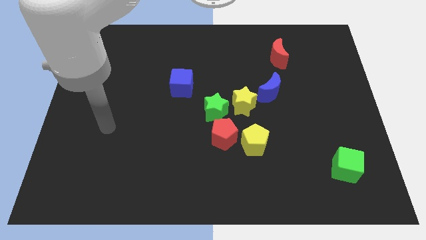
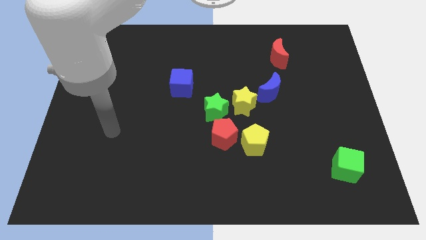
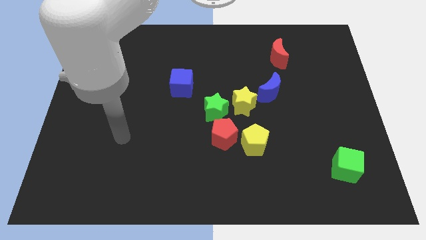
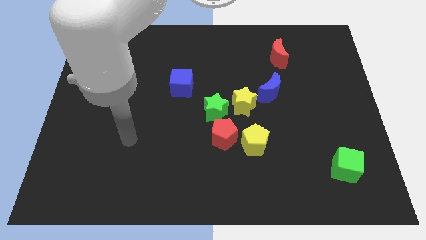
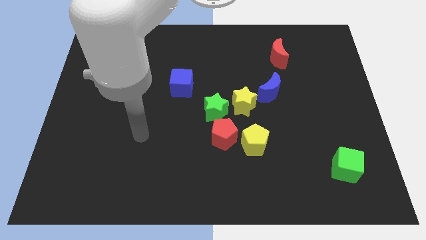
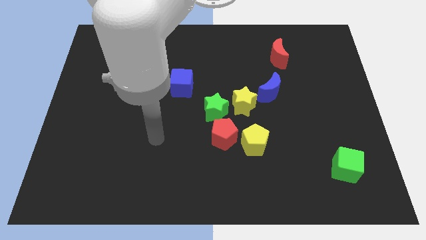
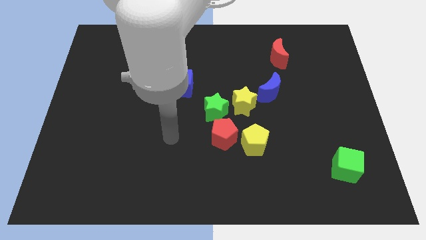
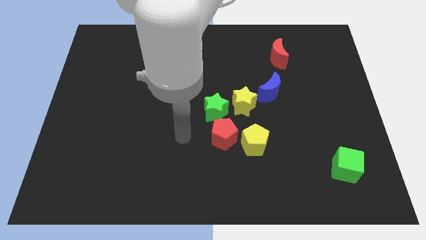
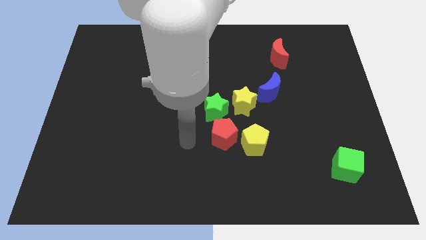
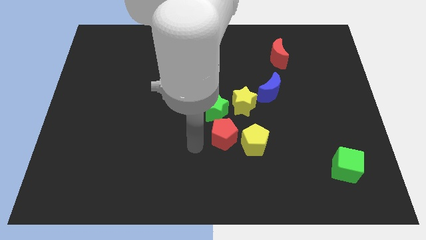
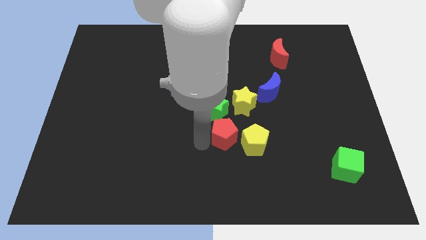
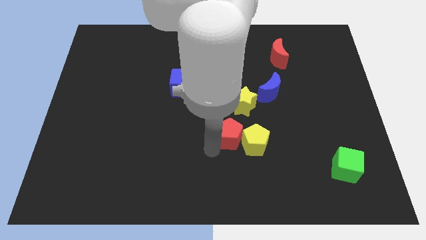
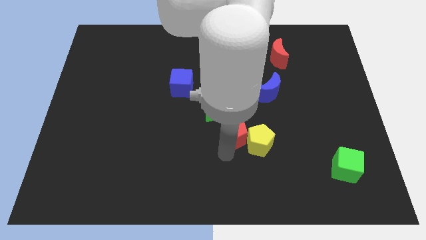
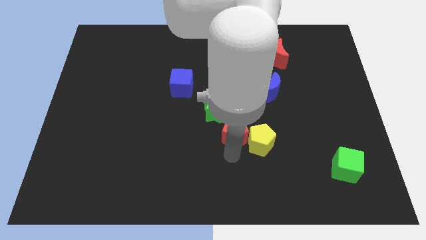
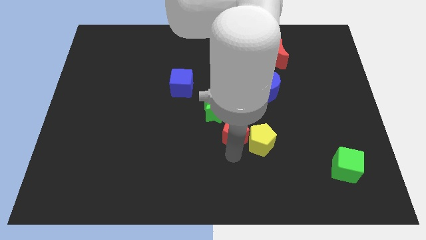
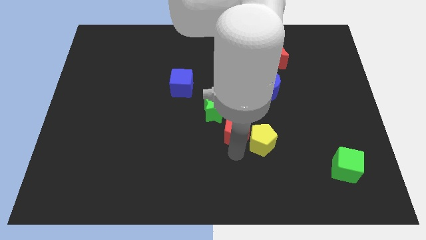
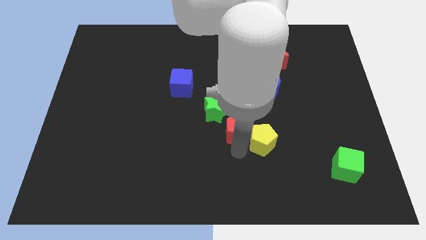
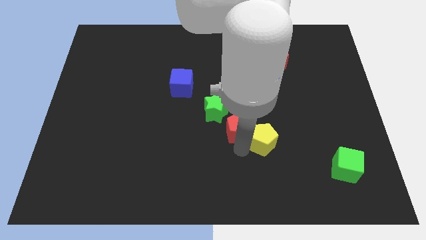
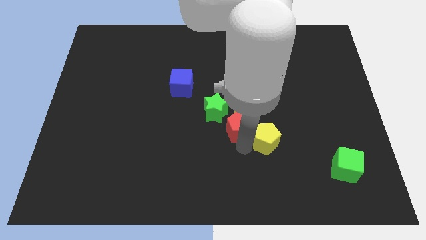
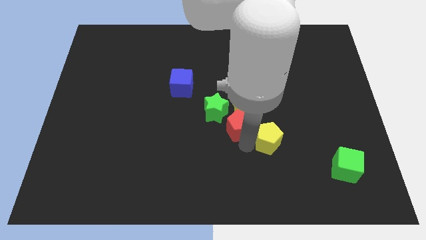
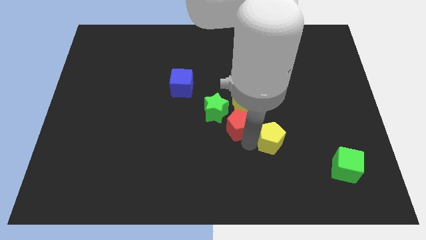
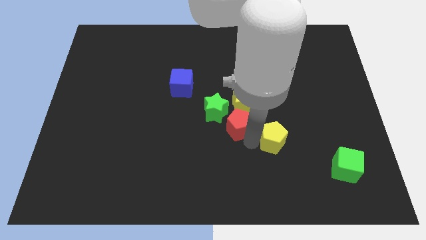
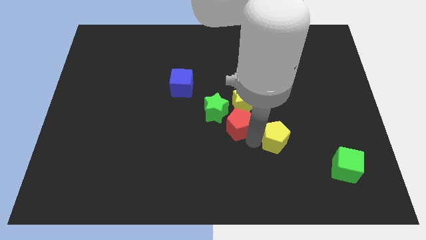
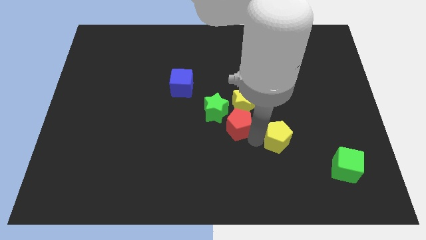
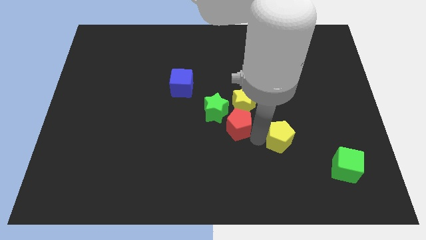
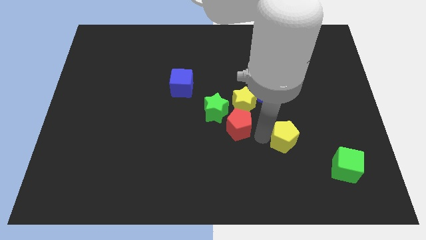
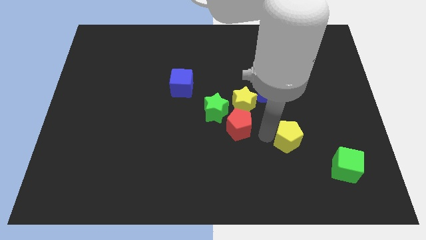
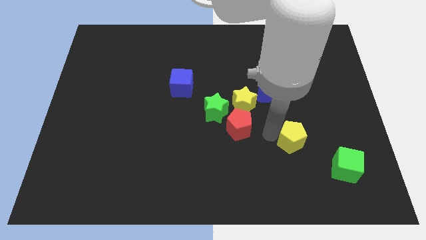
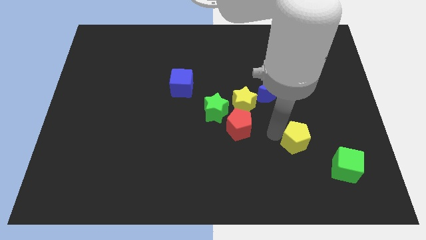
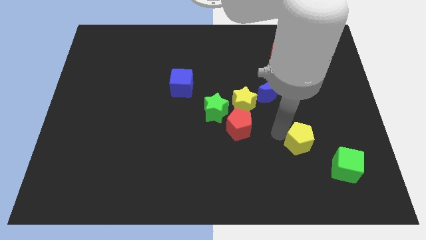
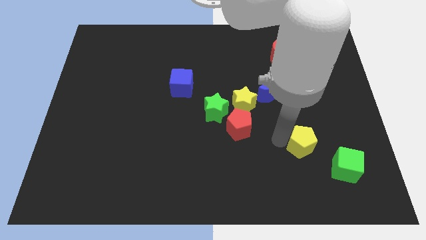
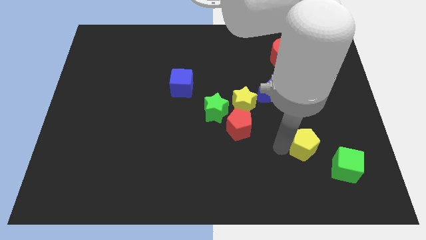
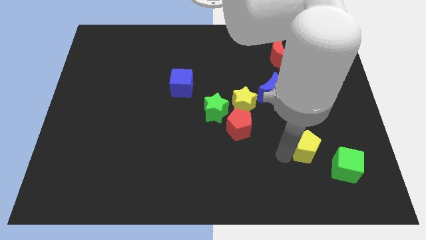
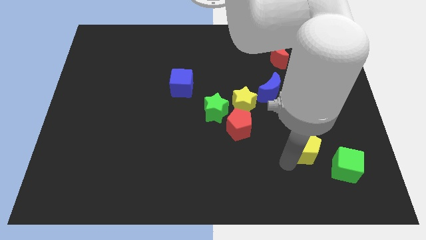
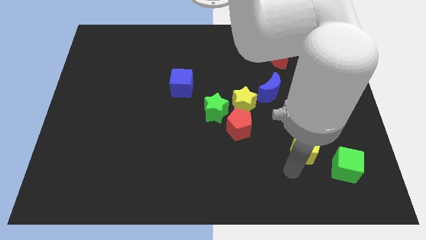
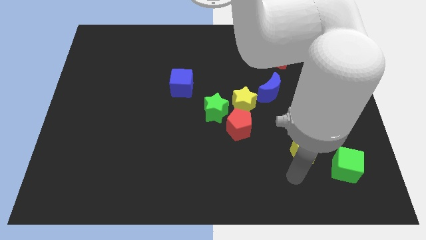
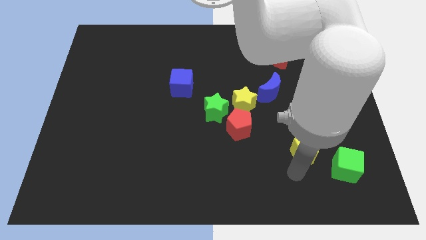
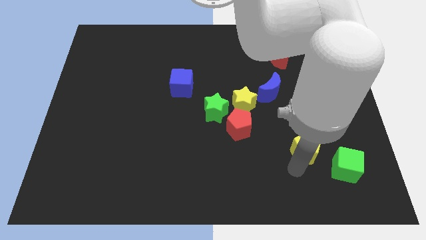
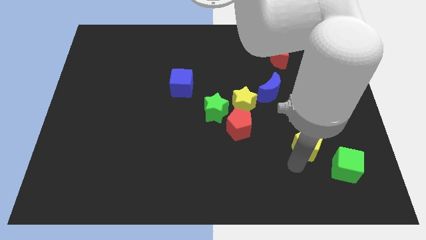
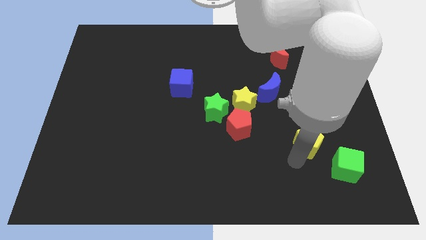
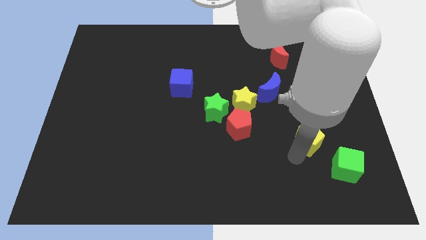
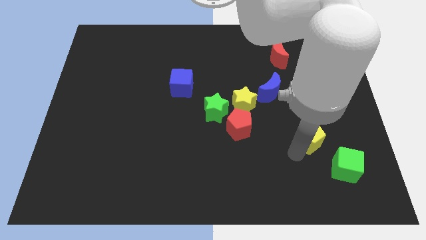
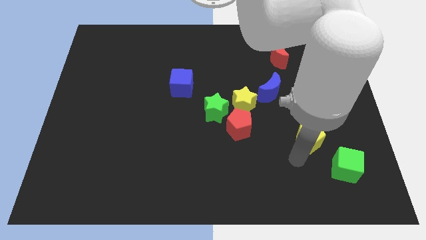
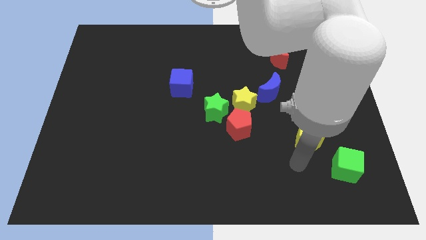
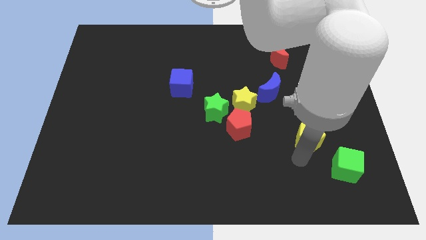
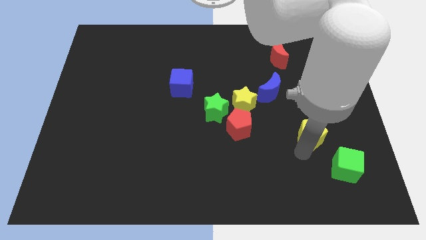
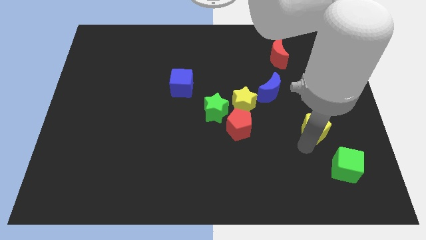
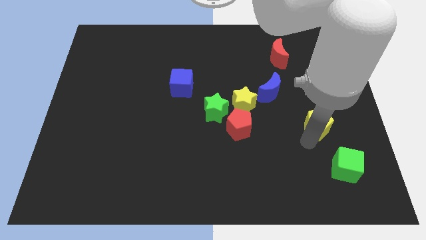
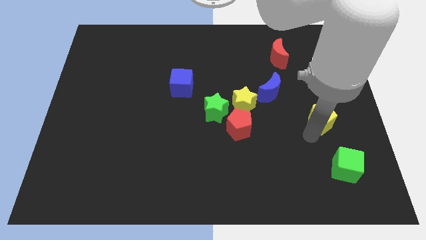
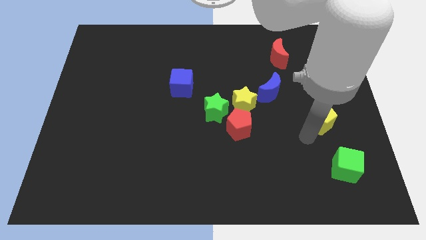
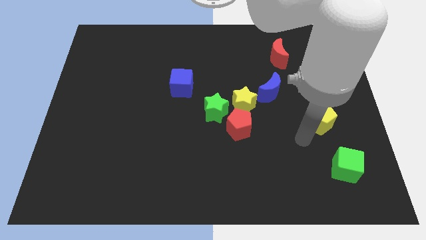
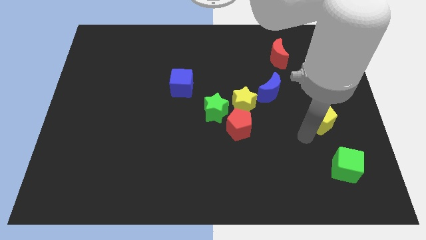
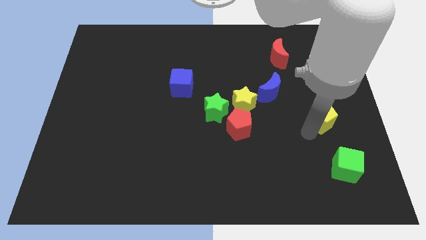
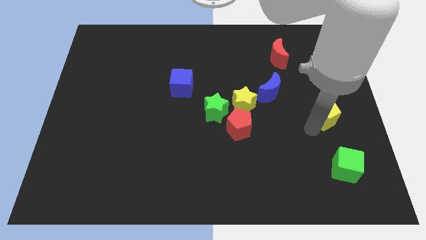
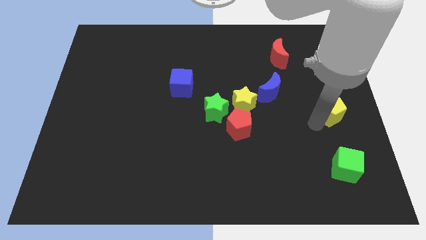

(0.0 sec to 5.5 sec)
push the yellow pentagon to the center right

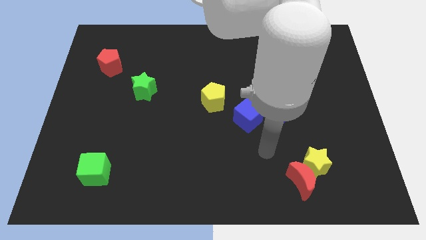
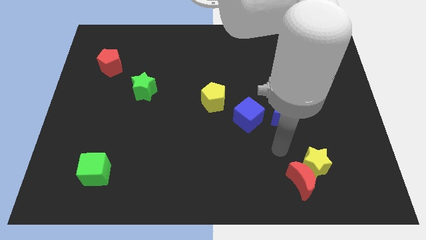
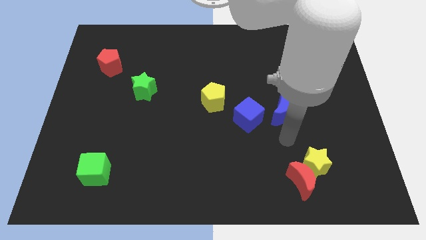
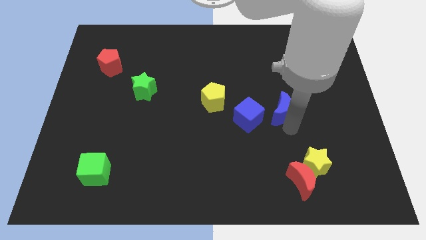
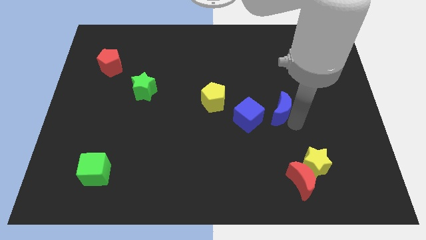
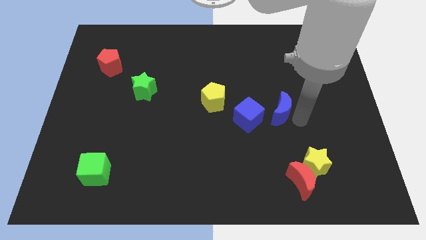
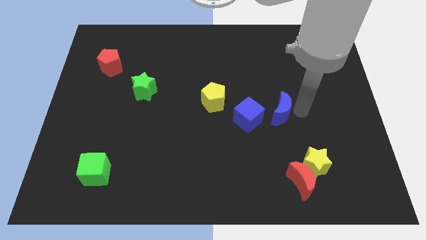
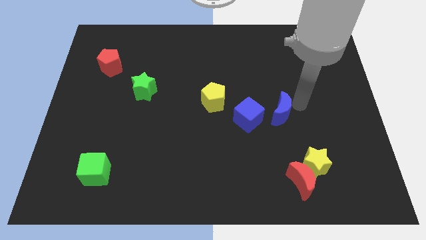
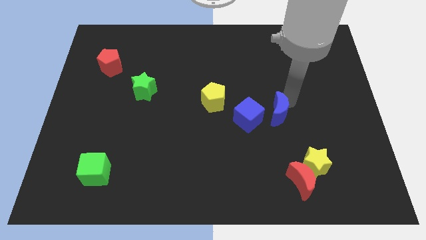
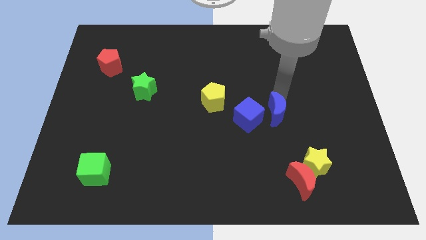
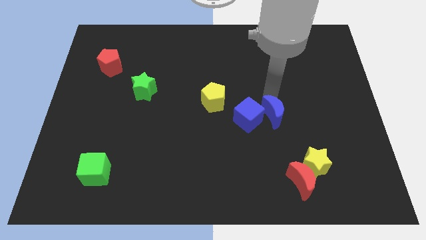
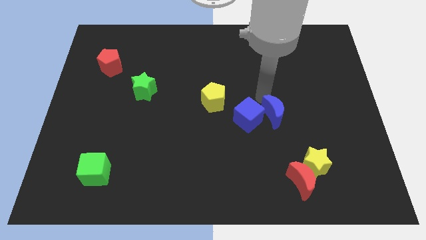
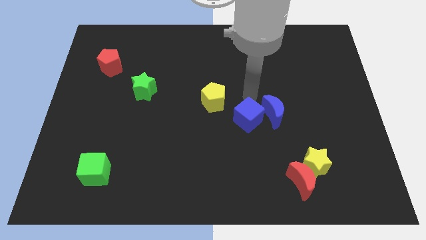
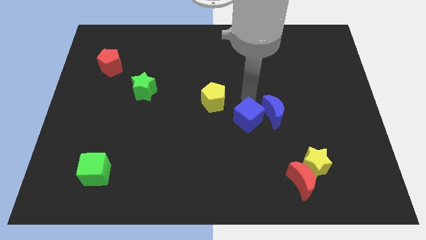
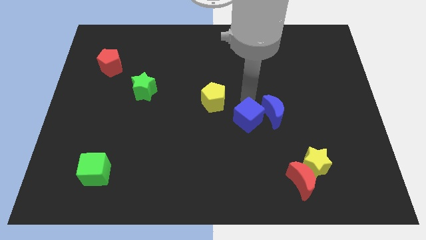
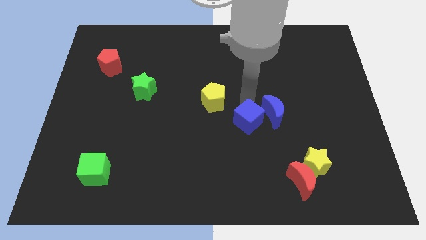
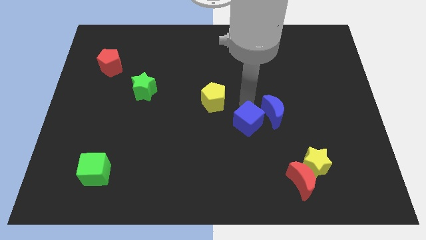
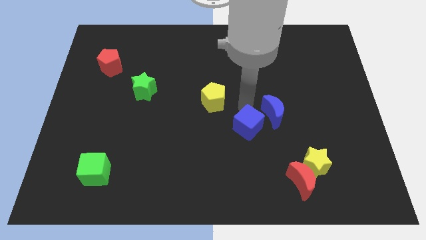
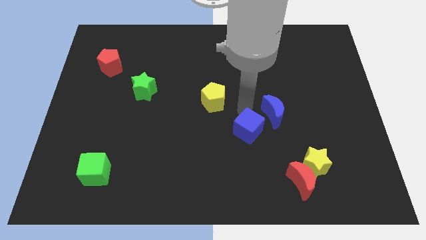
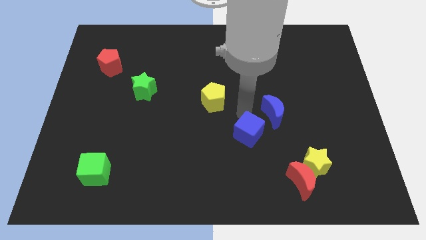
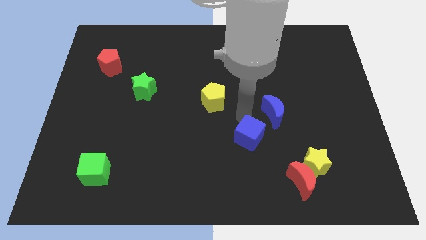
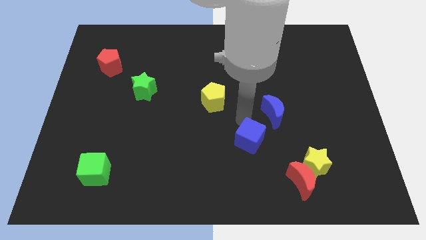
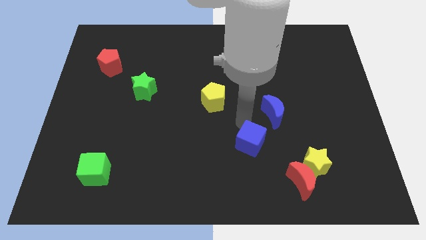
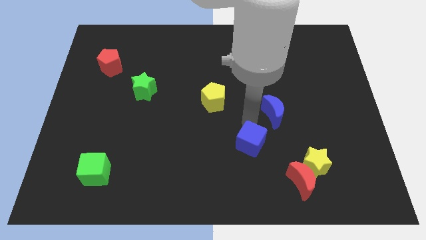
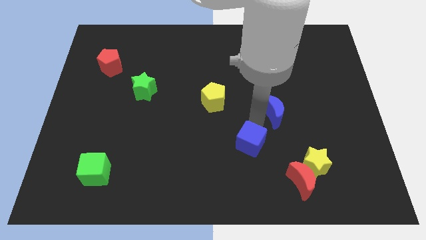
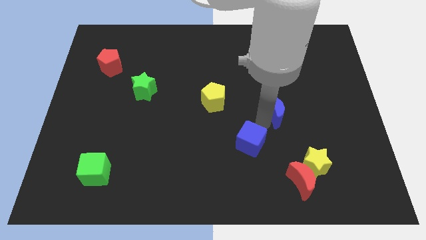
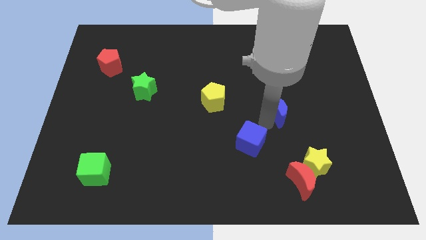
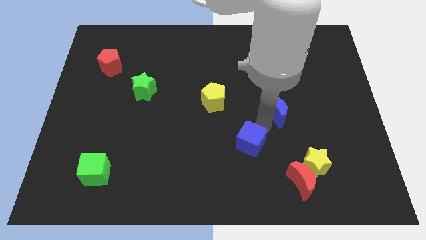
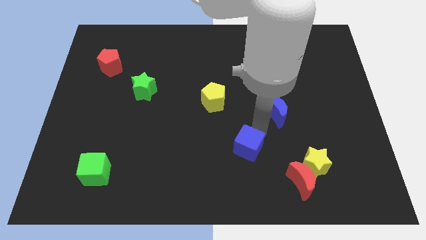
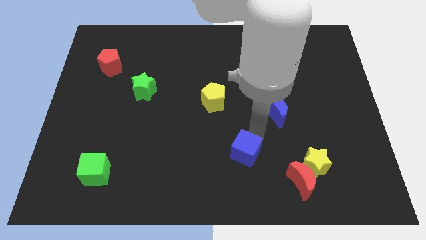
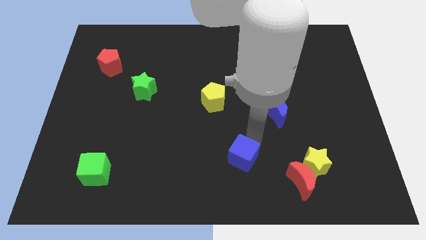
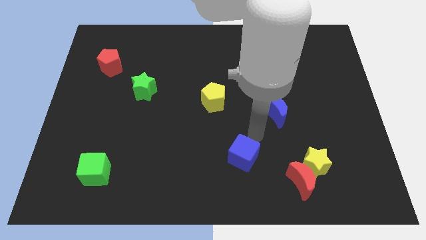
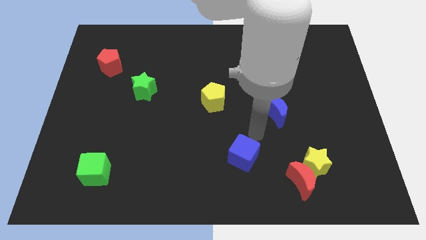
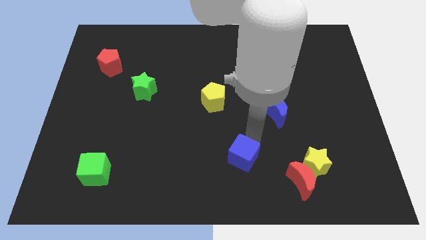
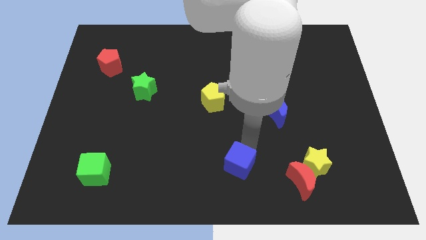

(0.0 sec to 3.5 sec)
slide the blue cube to the bottom side
